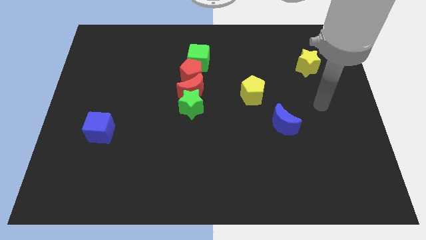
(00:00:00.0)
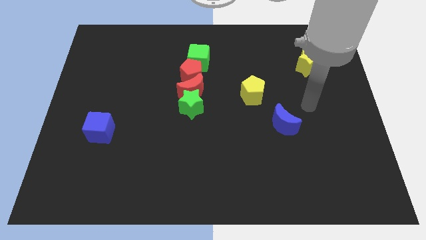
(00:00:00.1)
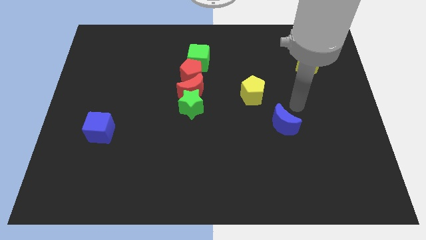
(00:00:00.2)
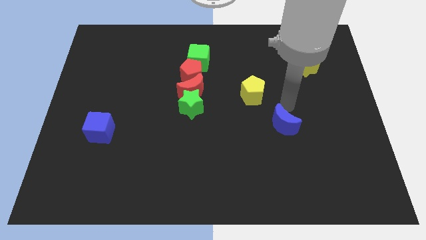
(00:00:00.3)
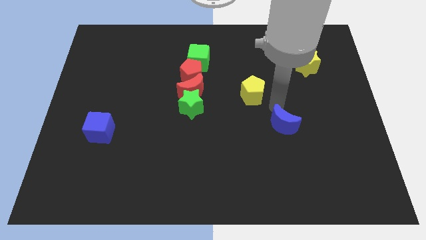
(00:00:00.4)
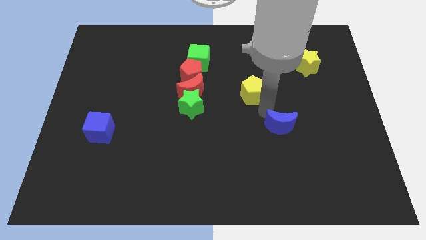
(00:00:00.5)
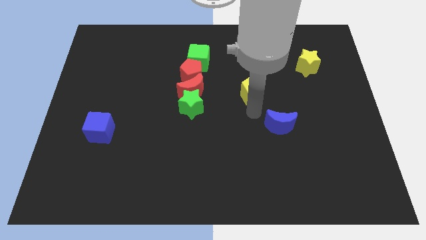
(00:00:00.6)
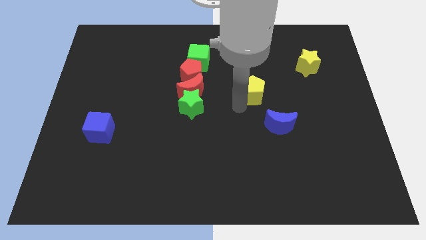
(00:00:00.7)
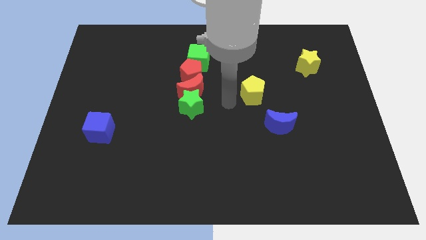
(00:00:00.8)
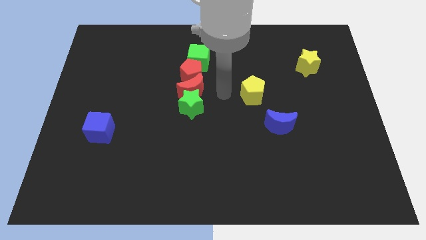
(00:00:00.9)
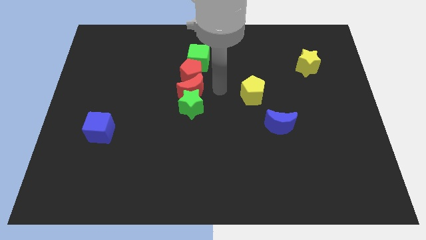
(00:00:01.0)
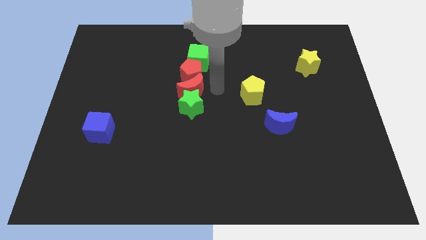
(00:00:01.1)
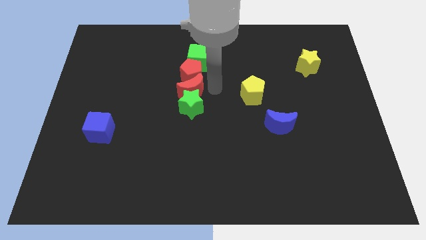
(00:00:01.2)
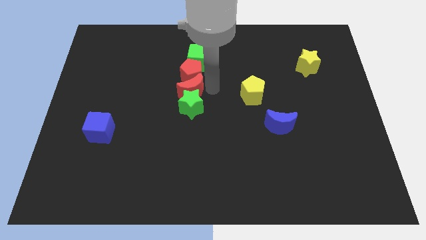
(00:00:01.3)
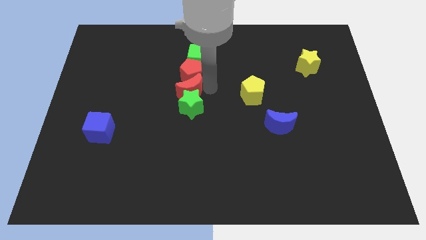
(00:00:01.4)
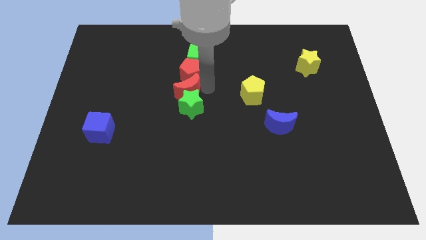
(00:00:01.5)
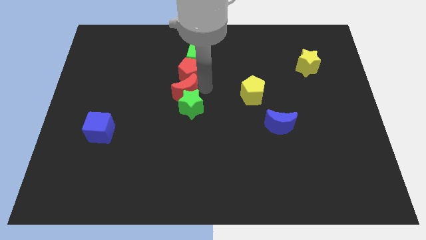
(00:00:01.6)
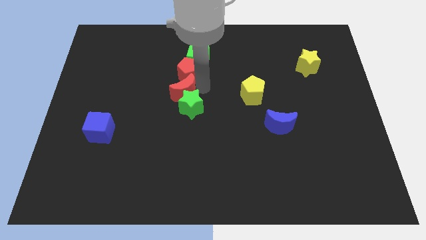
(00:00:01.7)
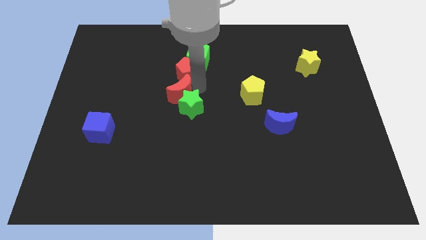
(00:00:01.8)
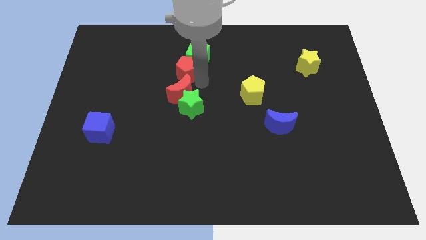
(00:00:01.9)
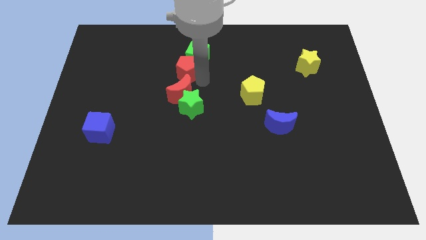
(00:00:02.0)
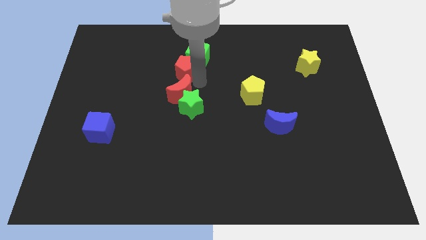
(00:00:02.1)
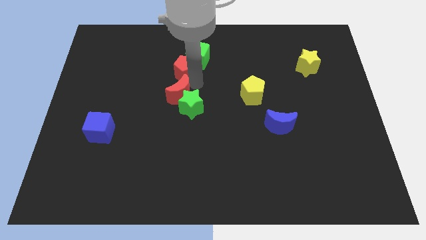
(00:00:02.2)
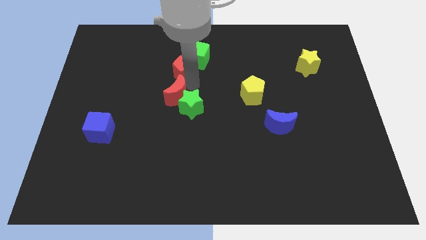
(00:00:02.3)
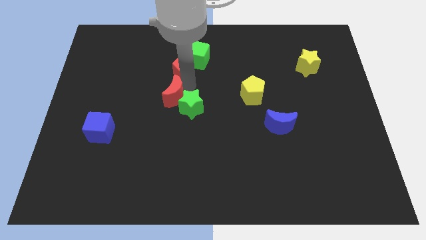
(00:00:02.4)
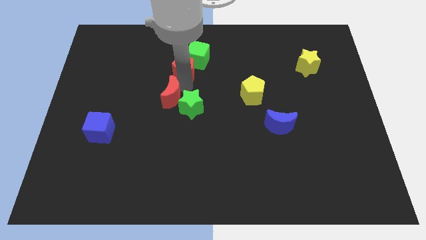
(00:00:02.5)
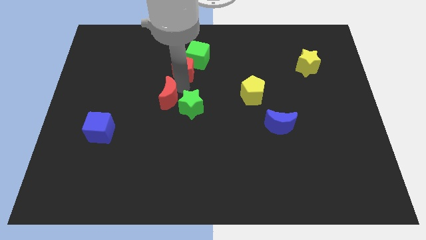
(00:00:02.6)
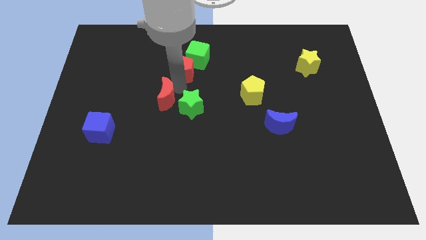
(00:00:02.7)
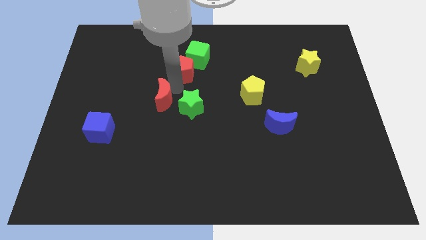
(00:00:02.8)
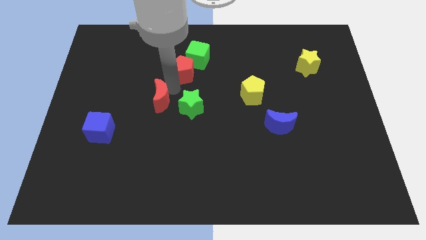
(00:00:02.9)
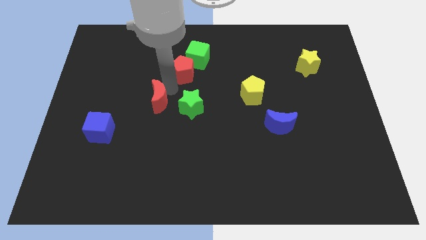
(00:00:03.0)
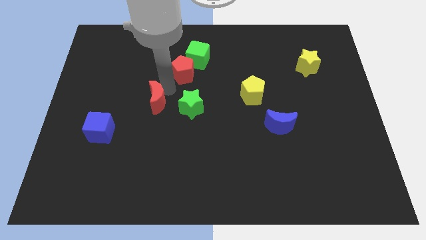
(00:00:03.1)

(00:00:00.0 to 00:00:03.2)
slightly push the red moon down and then to the left

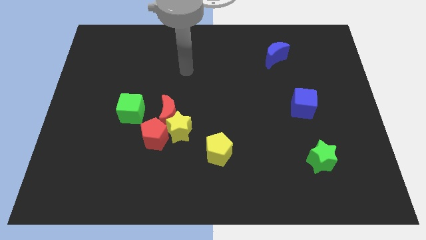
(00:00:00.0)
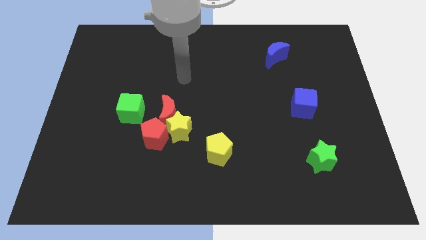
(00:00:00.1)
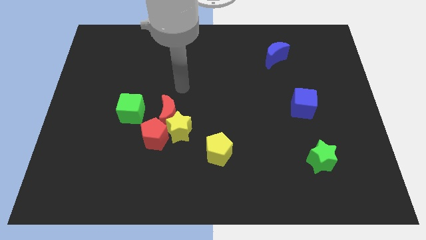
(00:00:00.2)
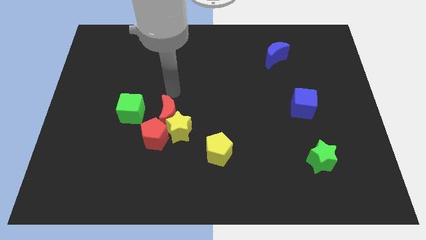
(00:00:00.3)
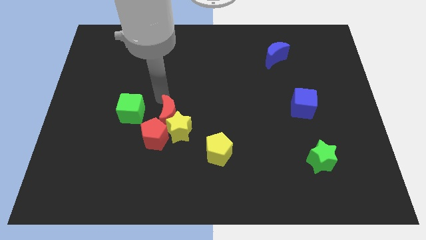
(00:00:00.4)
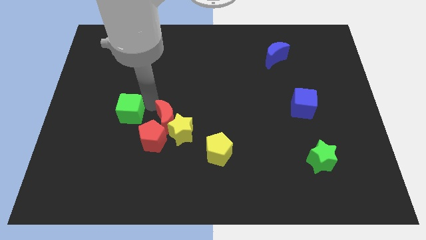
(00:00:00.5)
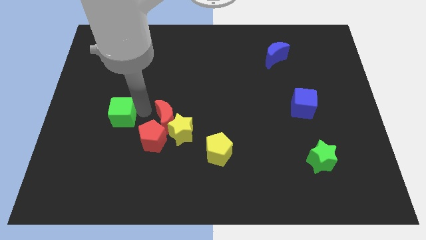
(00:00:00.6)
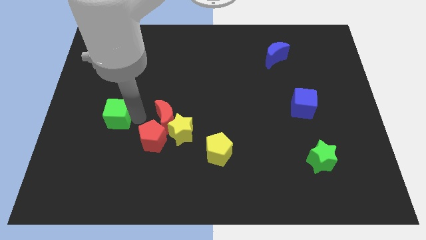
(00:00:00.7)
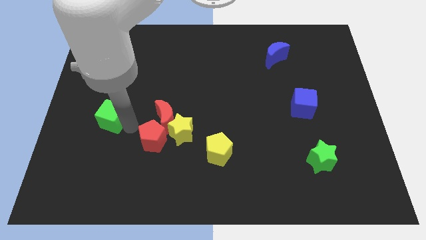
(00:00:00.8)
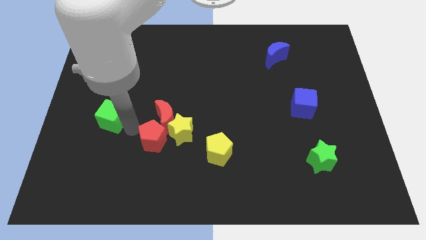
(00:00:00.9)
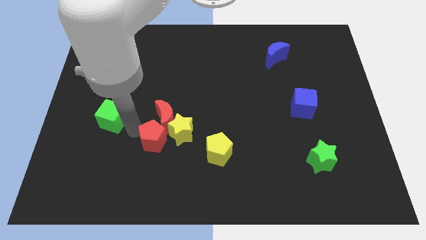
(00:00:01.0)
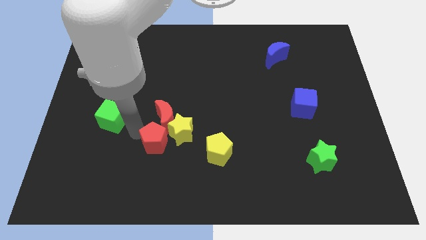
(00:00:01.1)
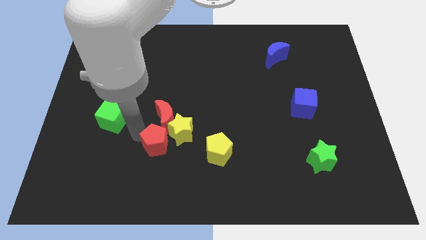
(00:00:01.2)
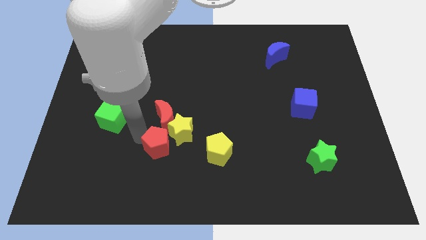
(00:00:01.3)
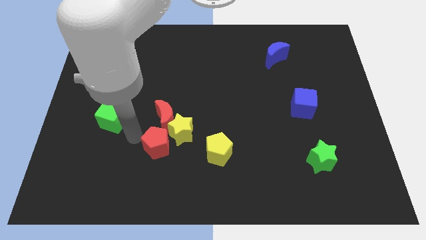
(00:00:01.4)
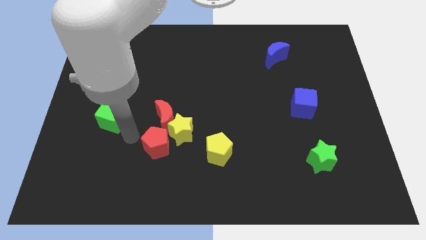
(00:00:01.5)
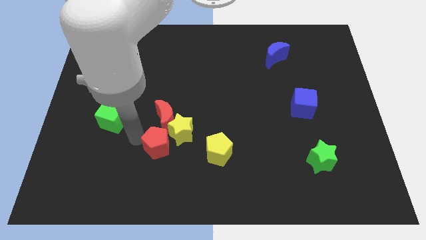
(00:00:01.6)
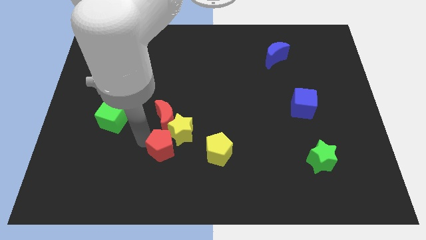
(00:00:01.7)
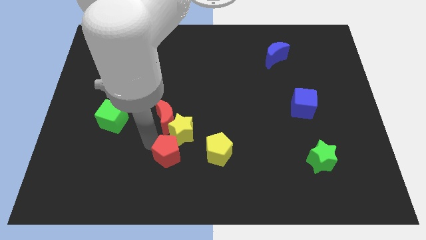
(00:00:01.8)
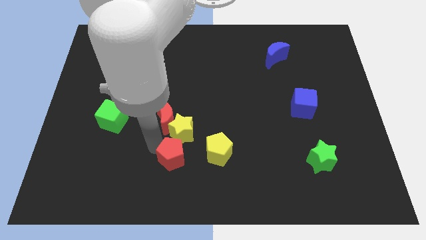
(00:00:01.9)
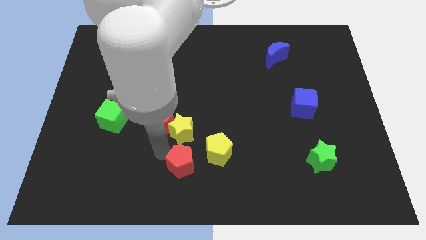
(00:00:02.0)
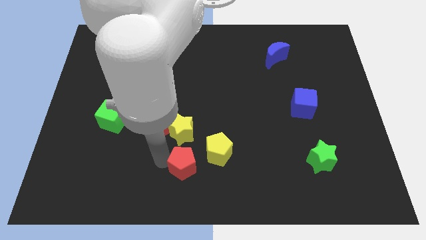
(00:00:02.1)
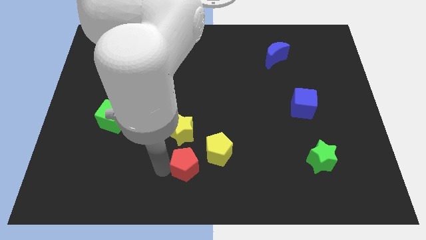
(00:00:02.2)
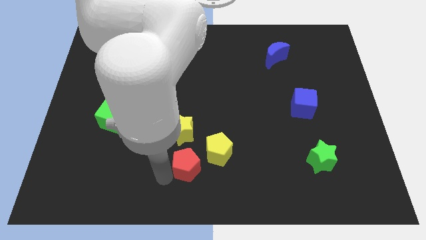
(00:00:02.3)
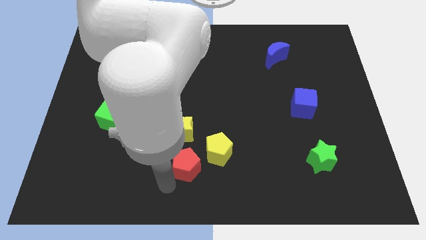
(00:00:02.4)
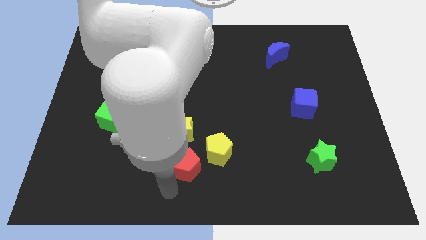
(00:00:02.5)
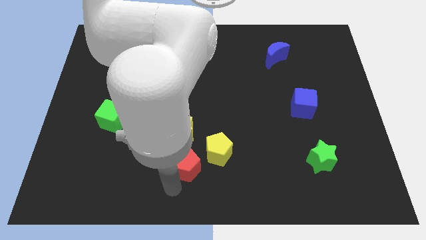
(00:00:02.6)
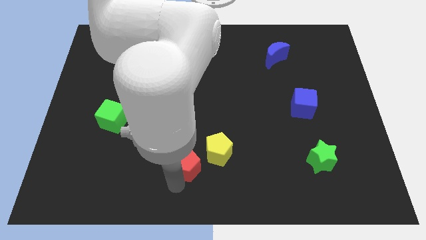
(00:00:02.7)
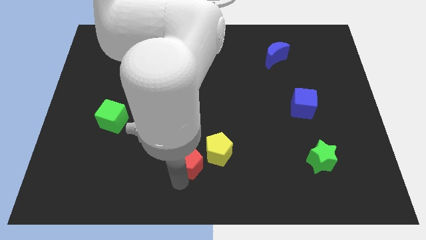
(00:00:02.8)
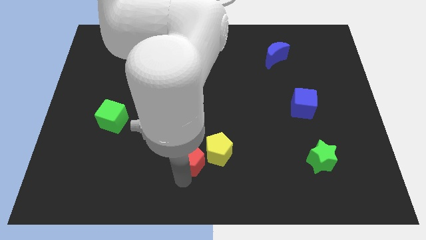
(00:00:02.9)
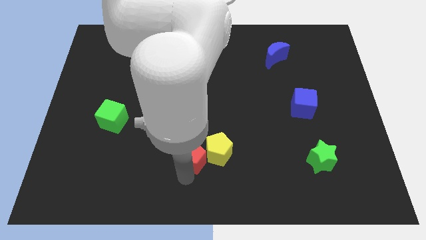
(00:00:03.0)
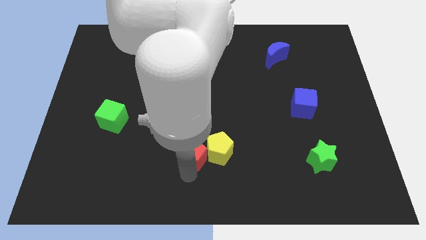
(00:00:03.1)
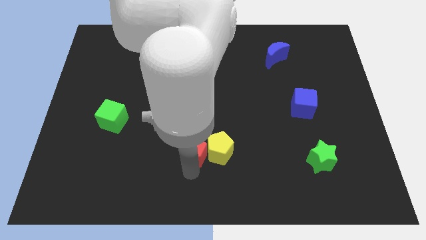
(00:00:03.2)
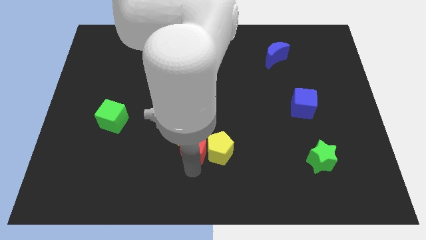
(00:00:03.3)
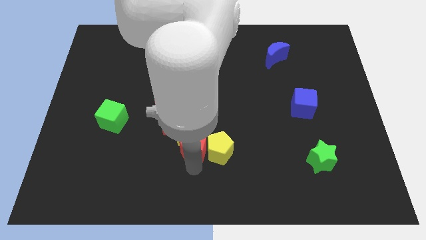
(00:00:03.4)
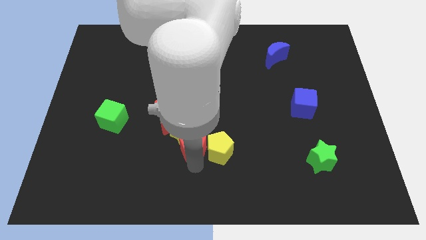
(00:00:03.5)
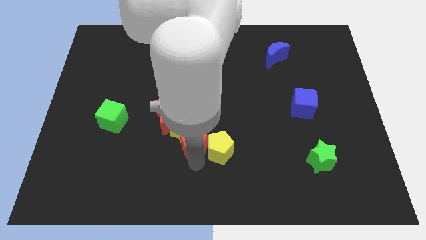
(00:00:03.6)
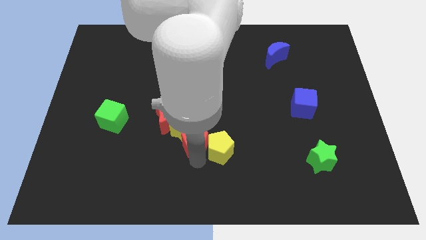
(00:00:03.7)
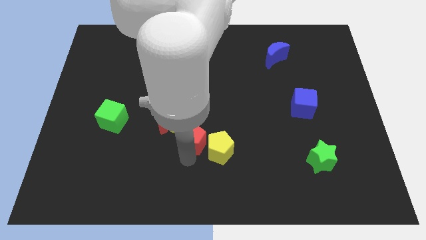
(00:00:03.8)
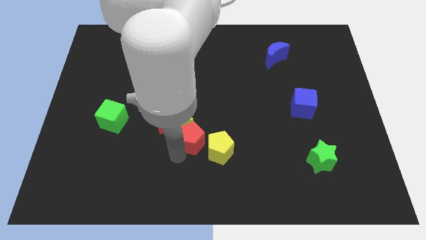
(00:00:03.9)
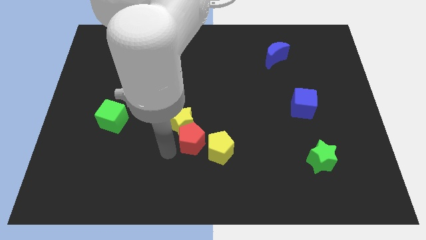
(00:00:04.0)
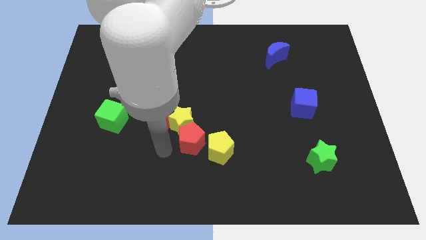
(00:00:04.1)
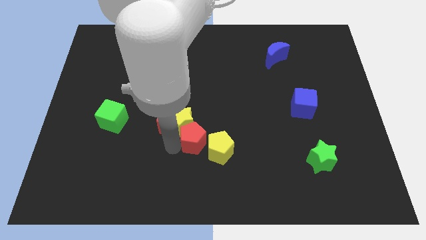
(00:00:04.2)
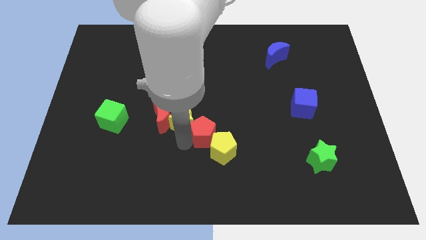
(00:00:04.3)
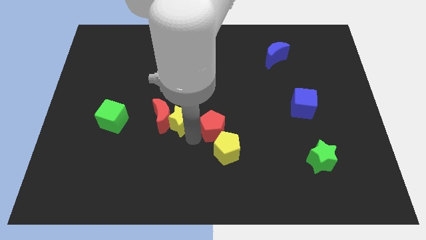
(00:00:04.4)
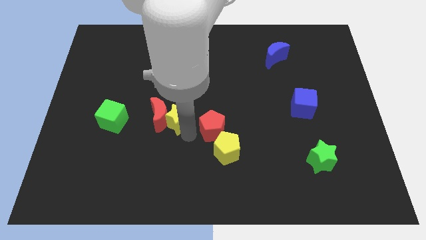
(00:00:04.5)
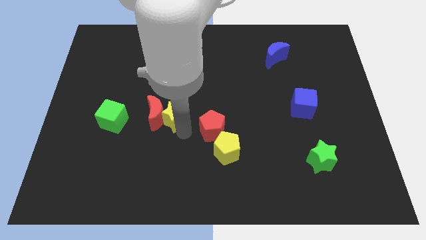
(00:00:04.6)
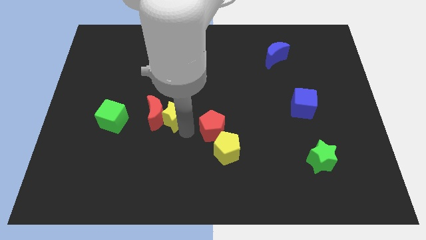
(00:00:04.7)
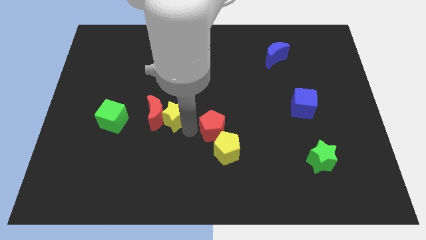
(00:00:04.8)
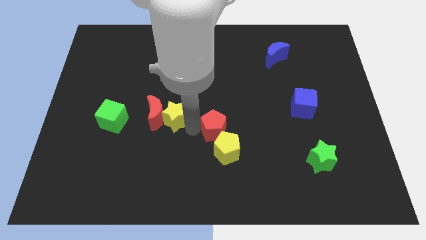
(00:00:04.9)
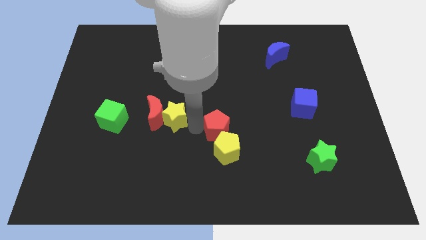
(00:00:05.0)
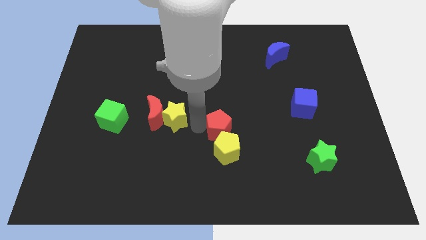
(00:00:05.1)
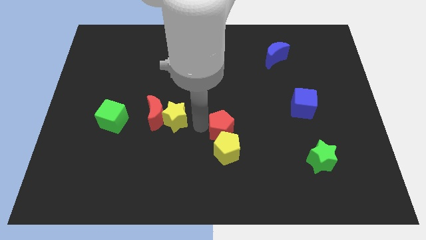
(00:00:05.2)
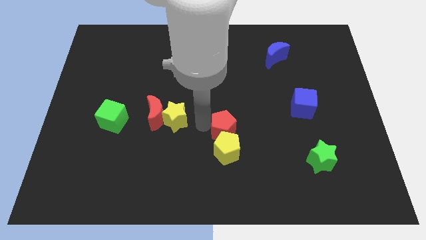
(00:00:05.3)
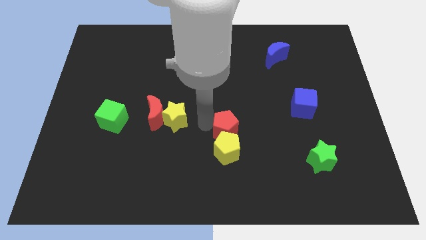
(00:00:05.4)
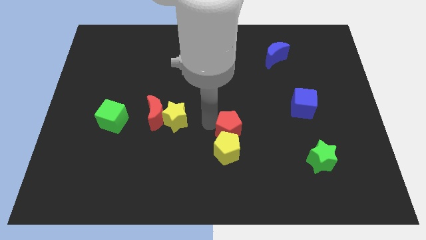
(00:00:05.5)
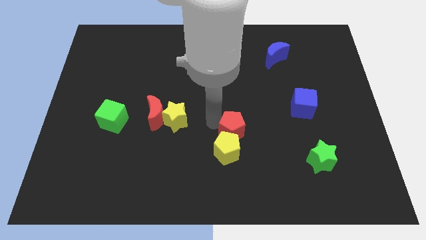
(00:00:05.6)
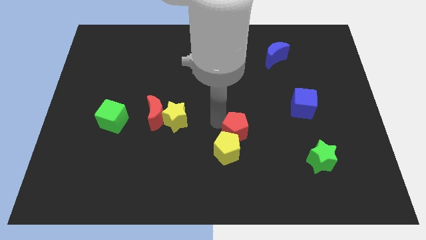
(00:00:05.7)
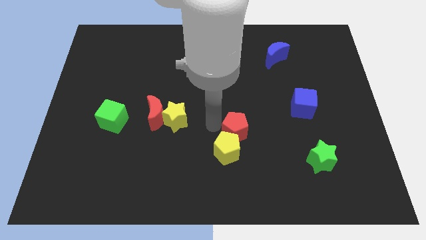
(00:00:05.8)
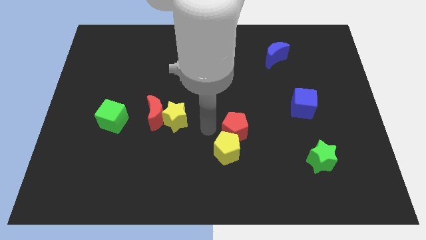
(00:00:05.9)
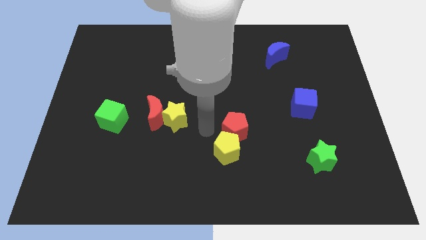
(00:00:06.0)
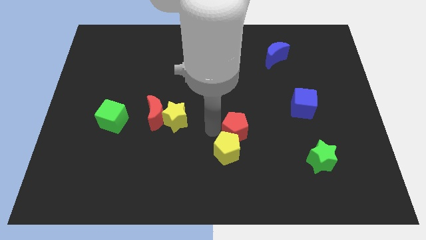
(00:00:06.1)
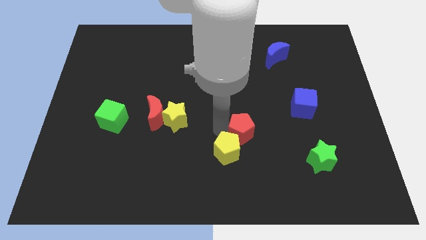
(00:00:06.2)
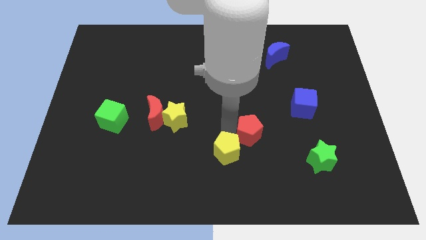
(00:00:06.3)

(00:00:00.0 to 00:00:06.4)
push the red pentagon to the right
